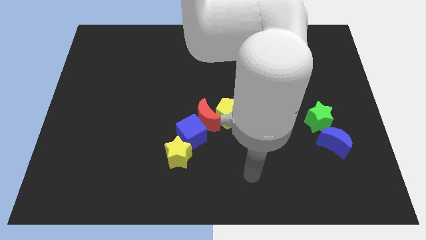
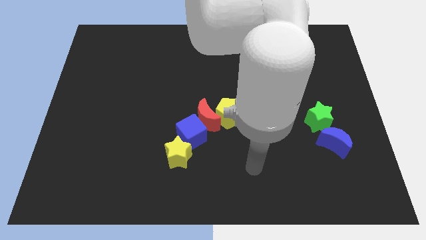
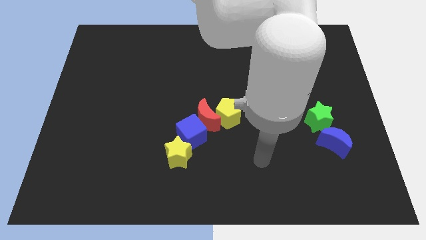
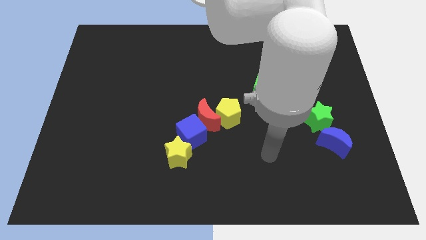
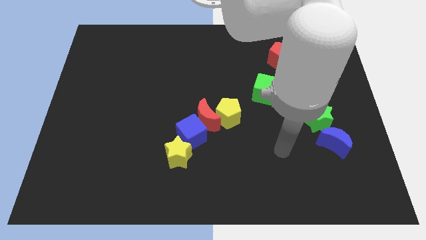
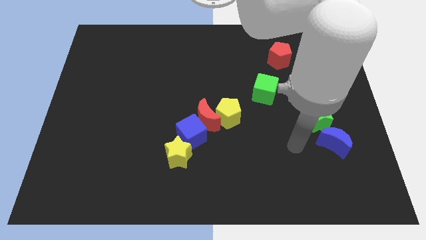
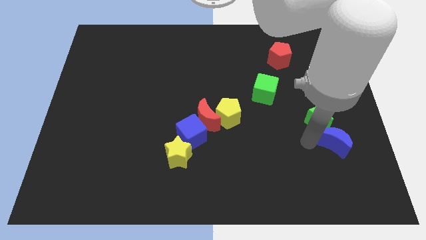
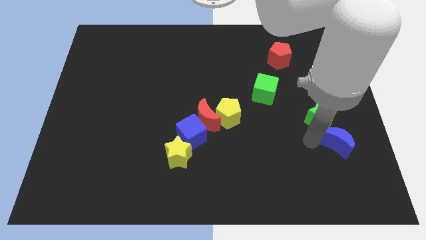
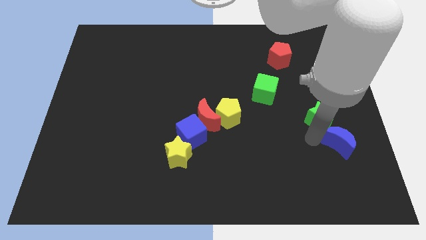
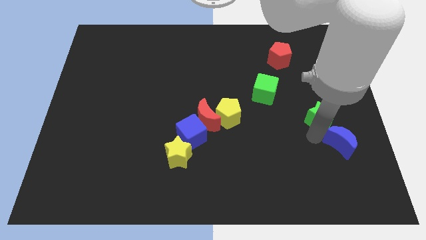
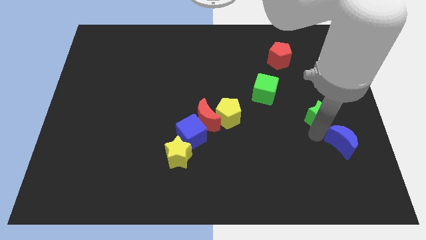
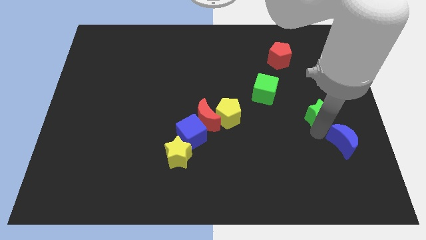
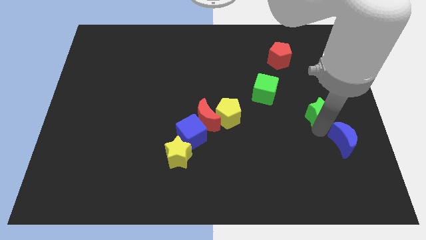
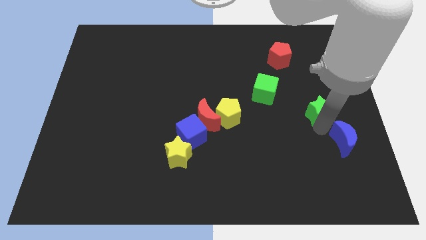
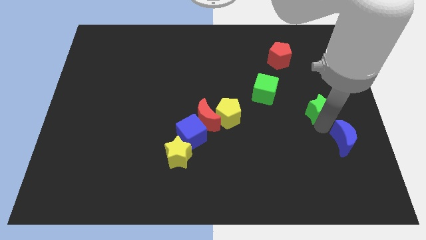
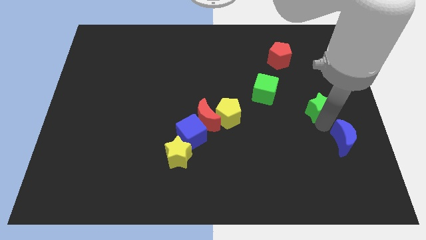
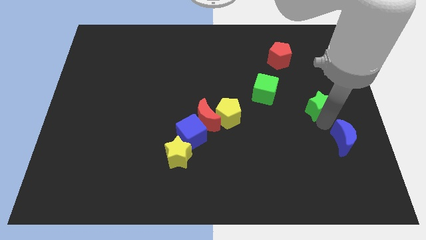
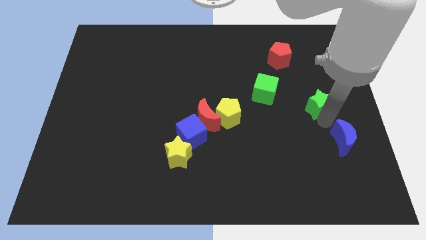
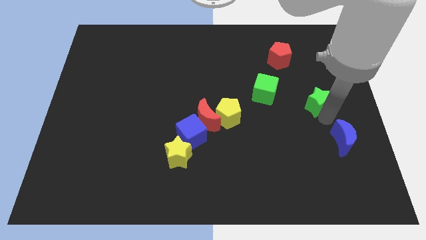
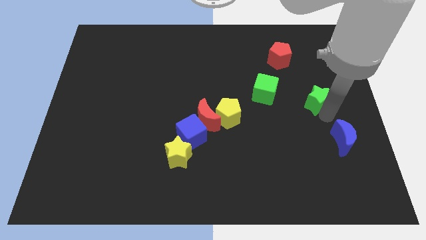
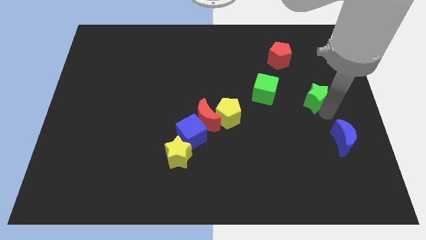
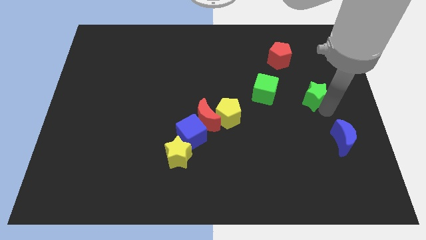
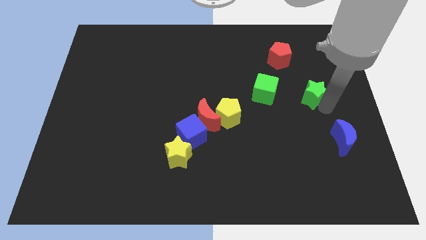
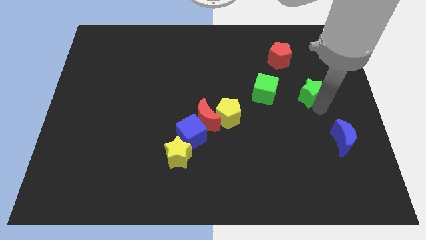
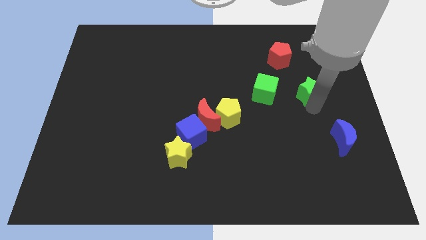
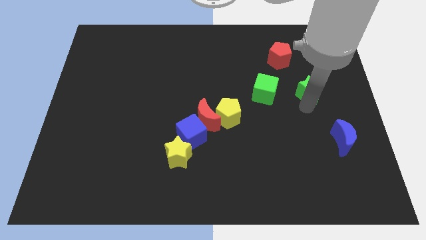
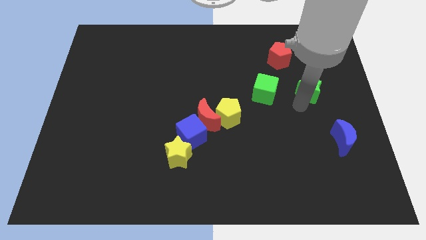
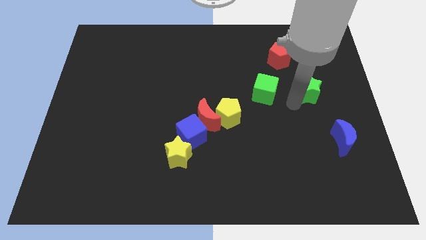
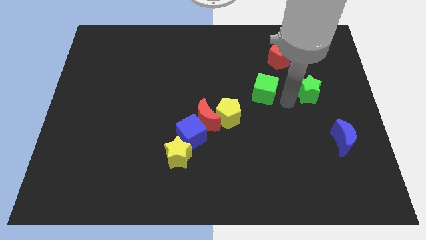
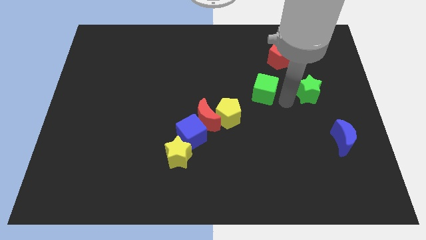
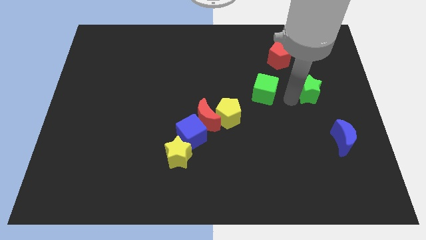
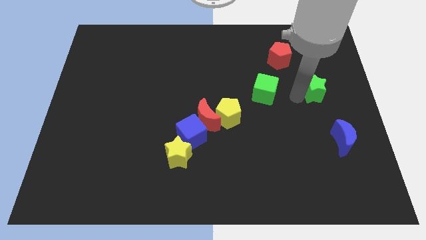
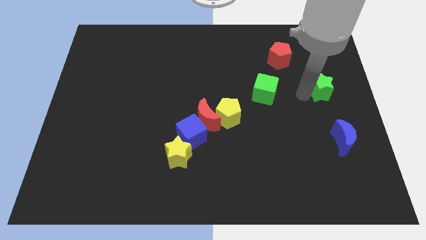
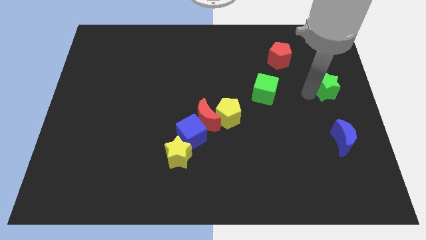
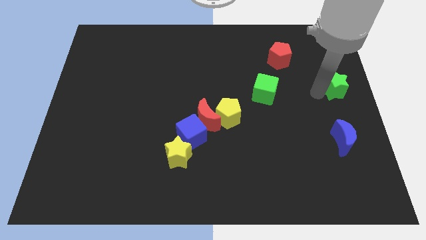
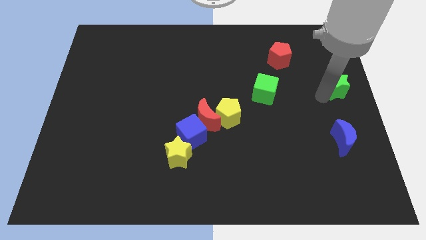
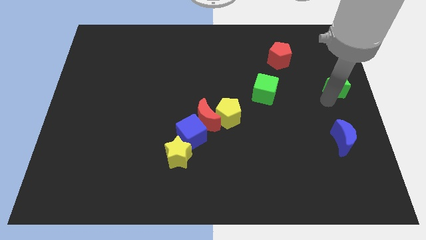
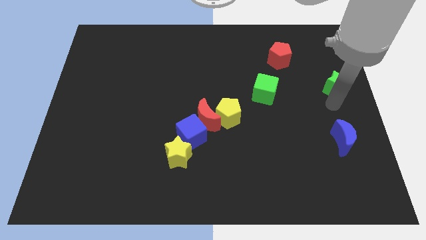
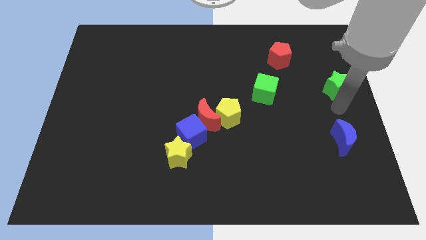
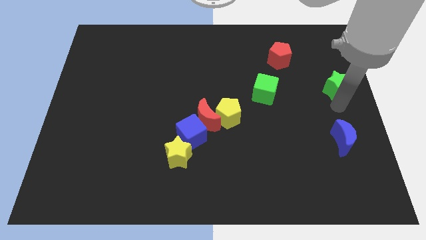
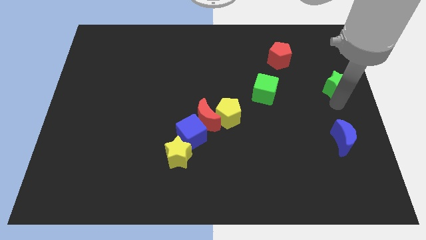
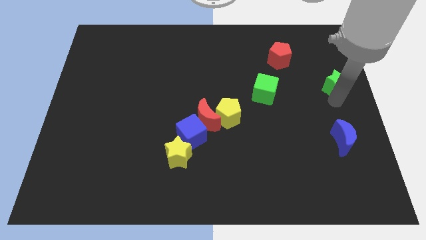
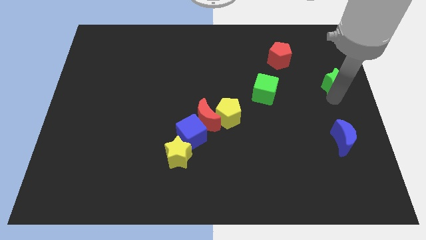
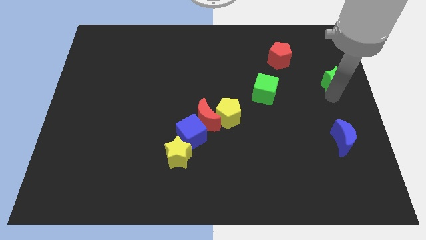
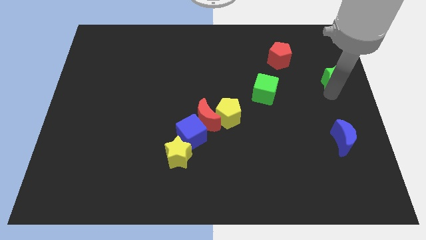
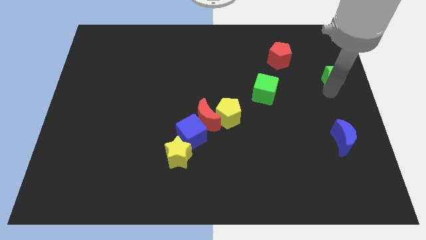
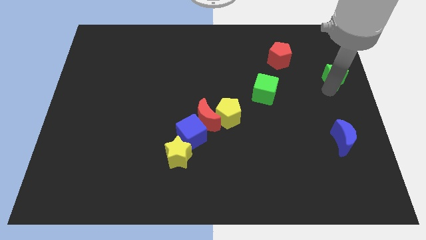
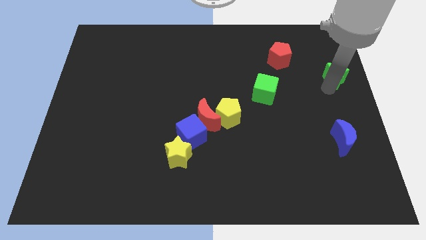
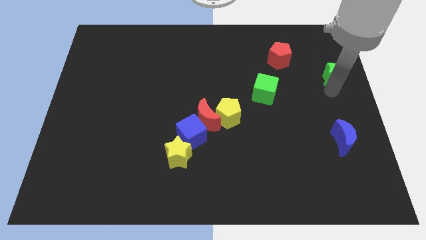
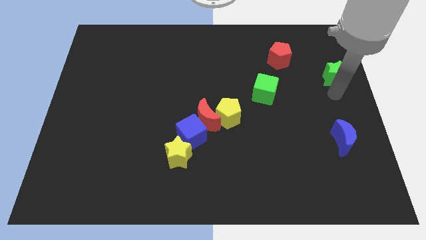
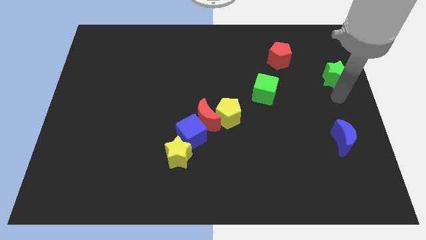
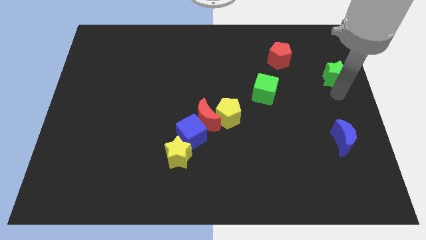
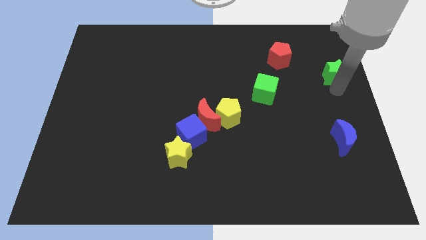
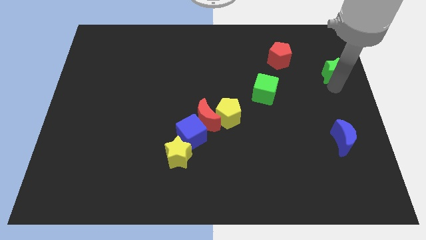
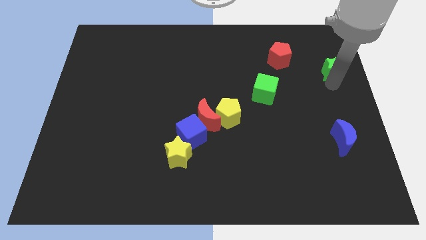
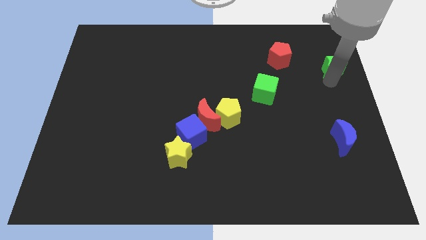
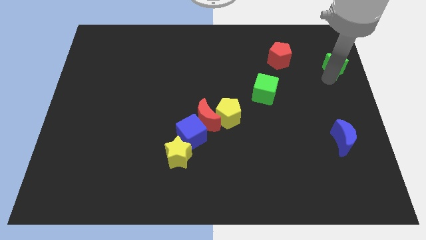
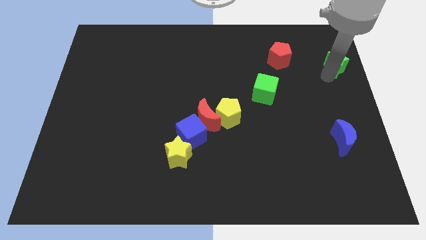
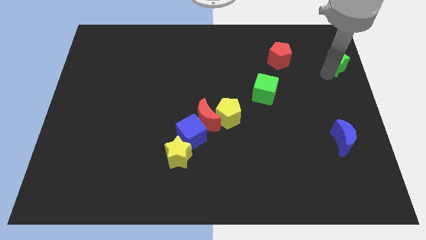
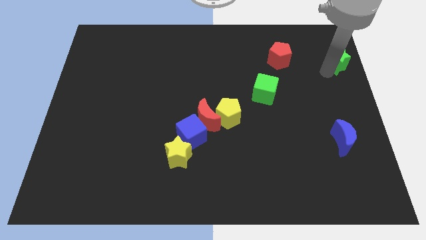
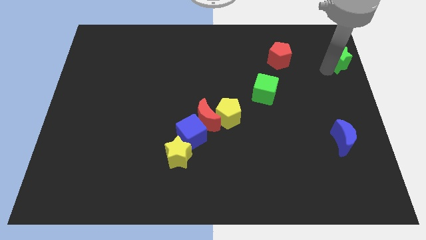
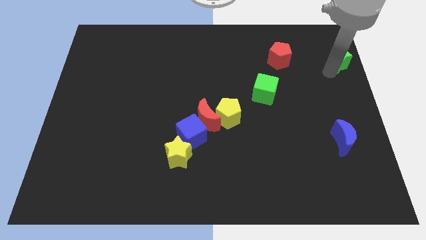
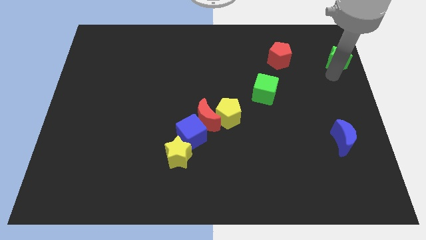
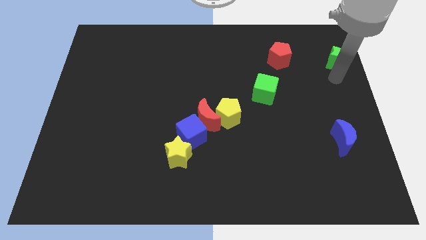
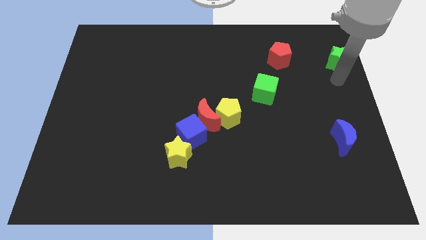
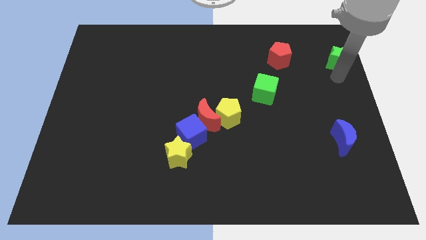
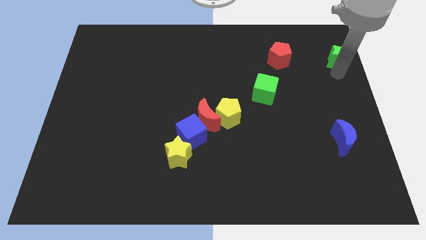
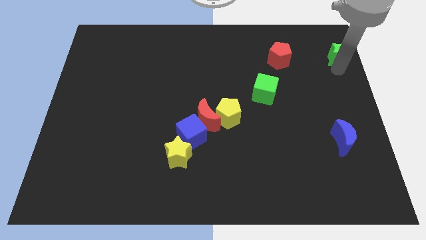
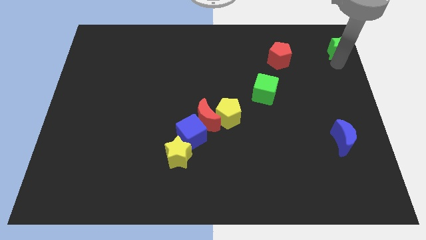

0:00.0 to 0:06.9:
push the green star to the top right of the board
